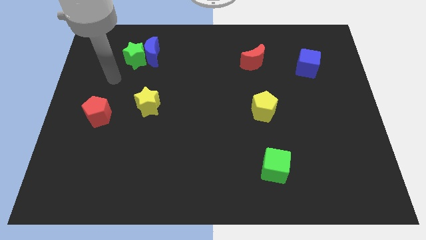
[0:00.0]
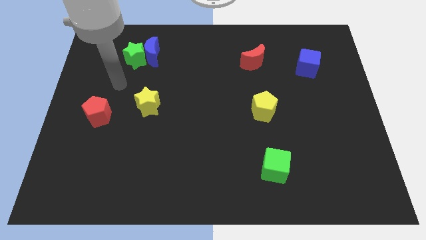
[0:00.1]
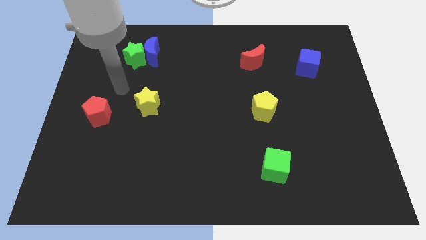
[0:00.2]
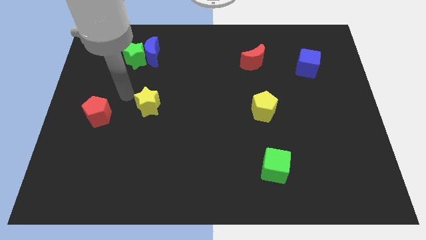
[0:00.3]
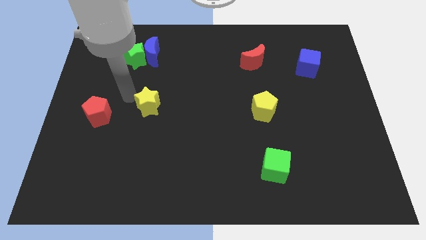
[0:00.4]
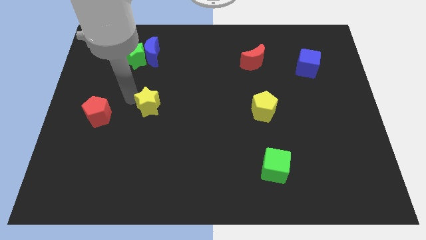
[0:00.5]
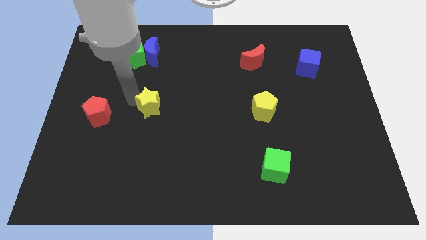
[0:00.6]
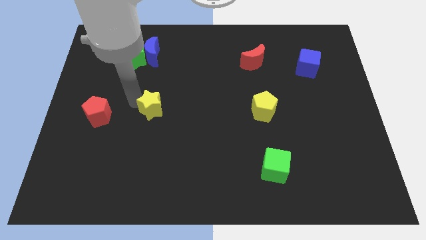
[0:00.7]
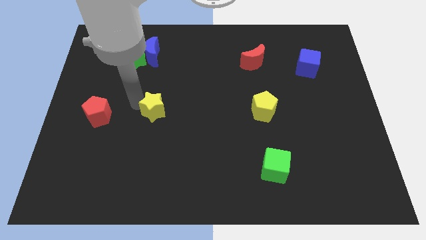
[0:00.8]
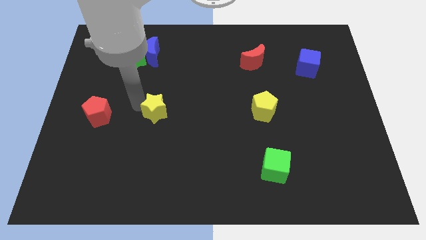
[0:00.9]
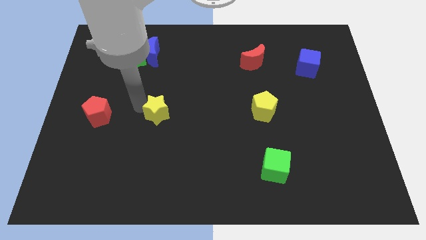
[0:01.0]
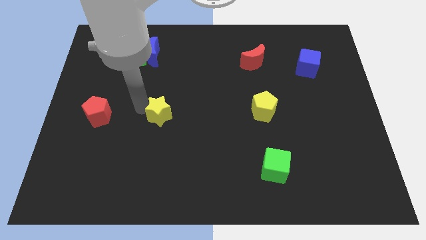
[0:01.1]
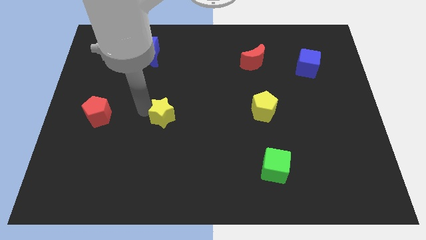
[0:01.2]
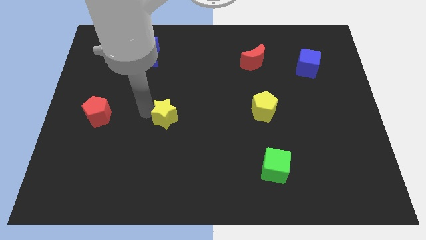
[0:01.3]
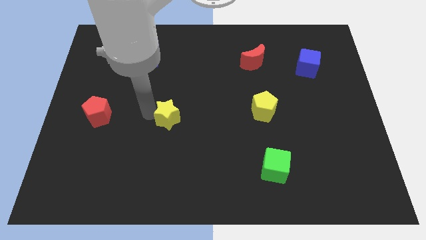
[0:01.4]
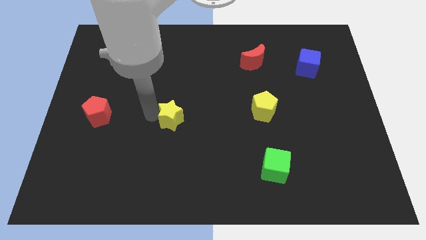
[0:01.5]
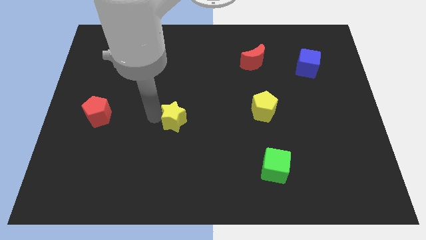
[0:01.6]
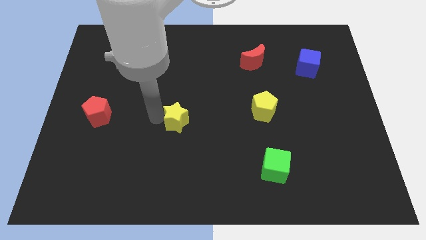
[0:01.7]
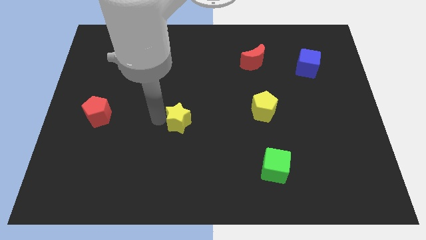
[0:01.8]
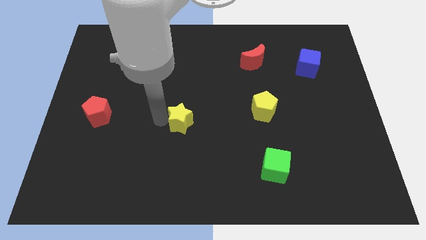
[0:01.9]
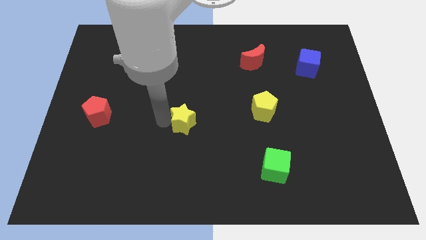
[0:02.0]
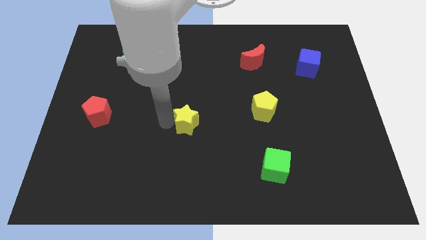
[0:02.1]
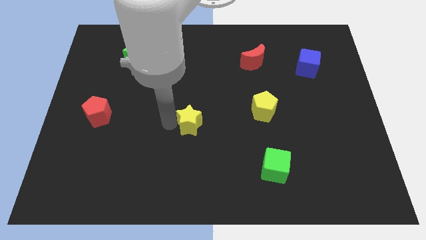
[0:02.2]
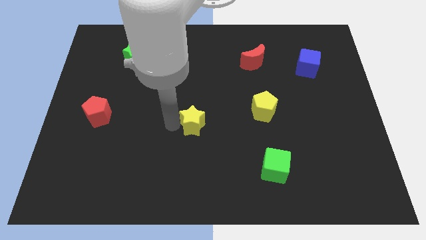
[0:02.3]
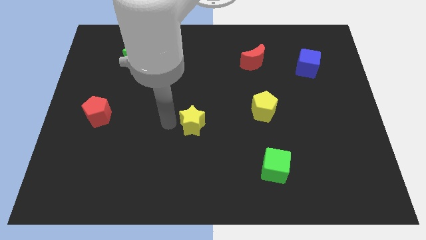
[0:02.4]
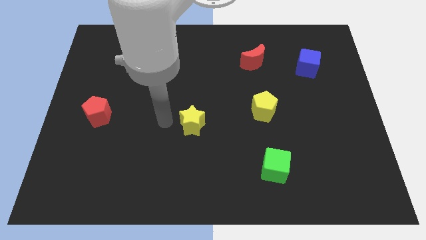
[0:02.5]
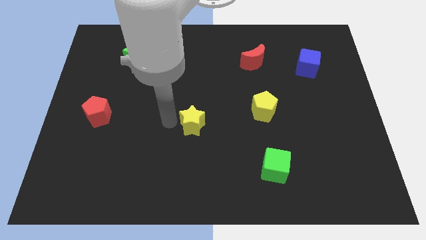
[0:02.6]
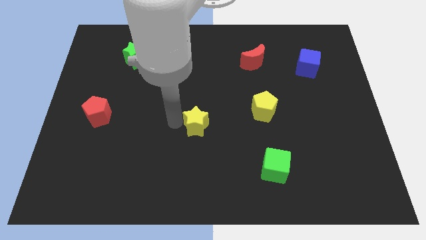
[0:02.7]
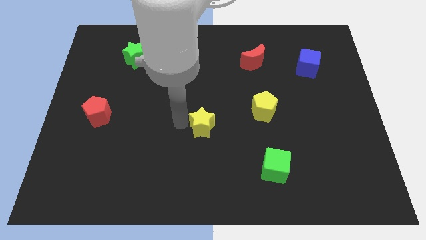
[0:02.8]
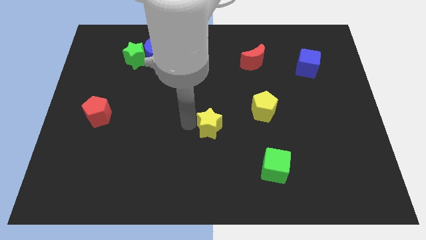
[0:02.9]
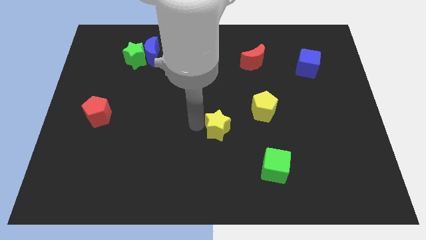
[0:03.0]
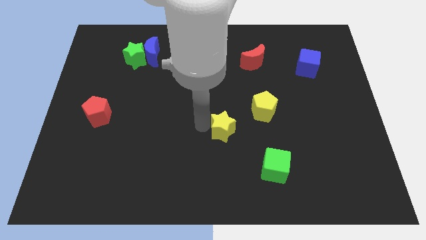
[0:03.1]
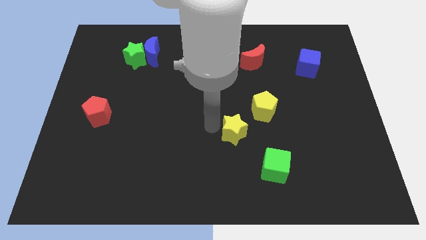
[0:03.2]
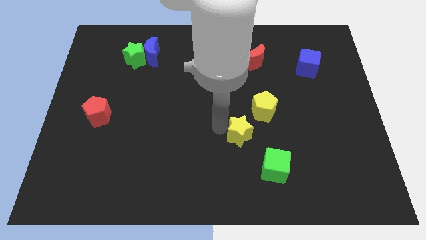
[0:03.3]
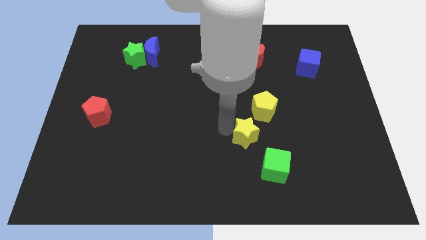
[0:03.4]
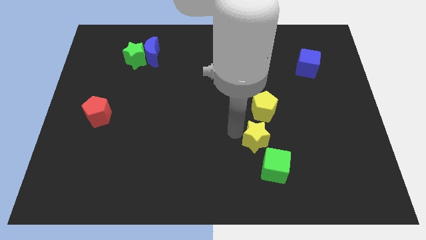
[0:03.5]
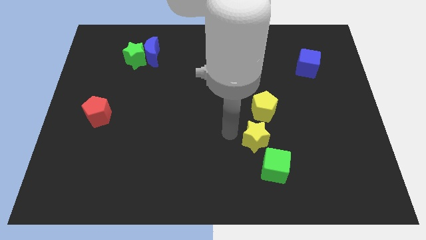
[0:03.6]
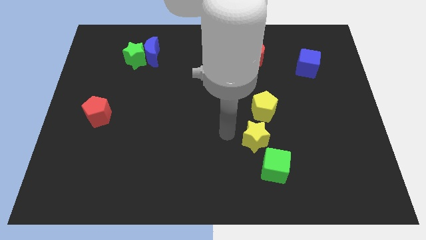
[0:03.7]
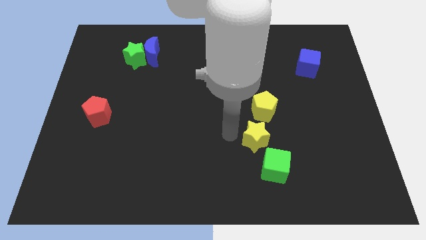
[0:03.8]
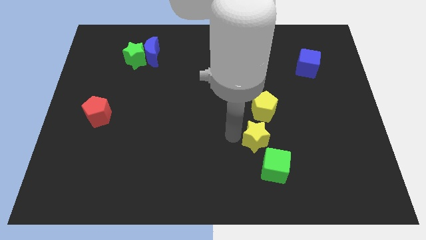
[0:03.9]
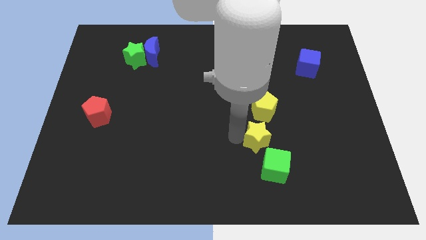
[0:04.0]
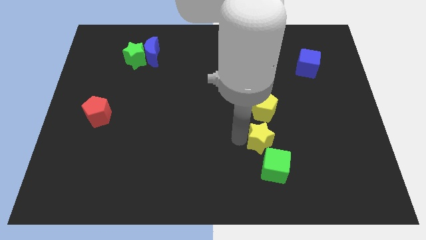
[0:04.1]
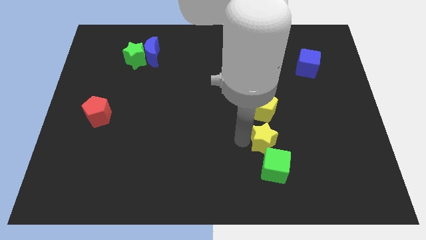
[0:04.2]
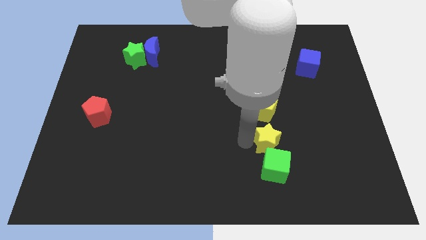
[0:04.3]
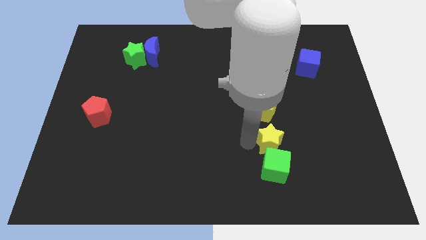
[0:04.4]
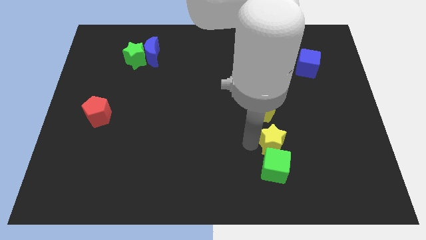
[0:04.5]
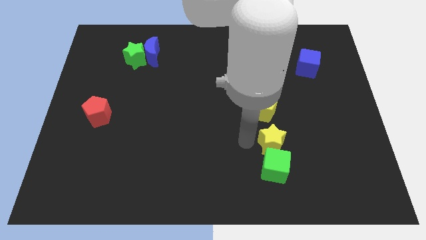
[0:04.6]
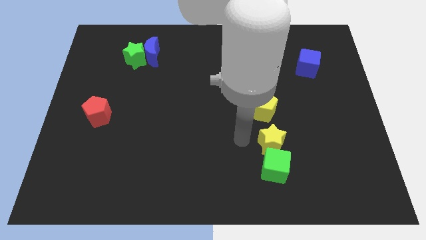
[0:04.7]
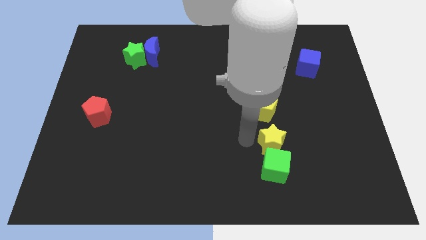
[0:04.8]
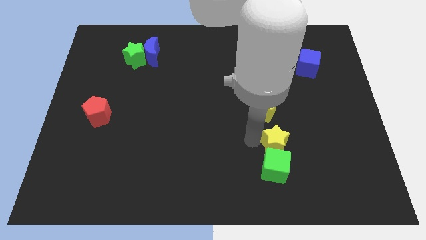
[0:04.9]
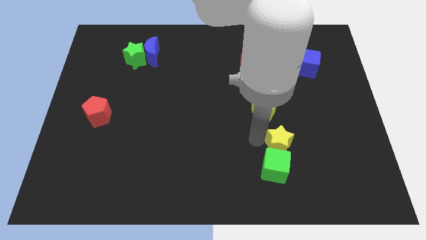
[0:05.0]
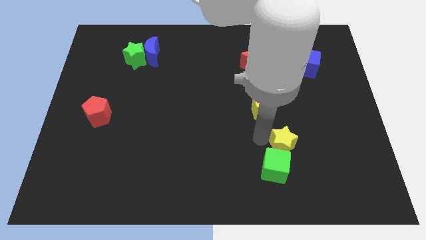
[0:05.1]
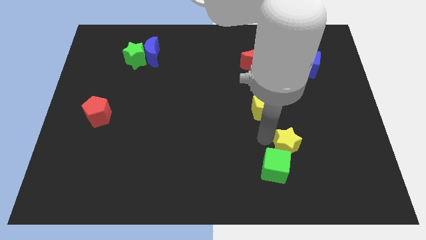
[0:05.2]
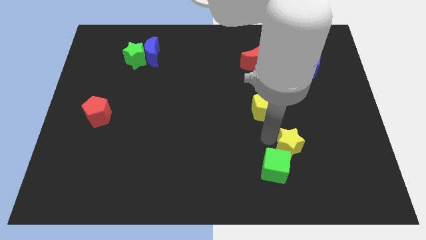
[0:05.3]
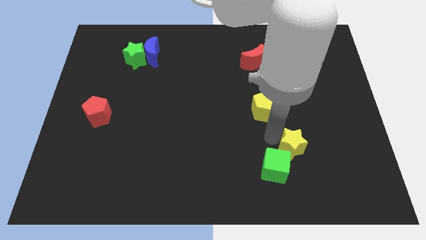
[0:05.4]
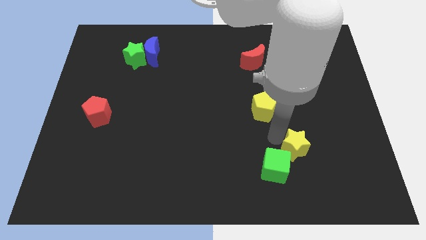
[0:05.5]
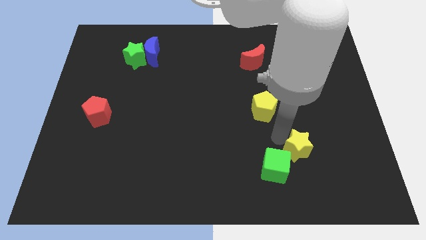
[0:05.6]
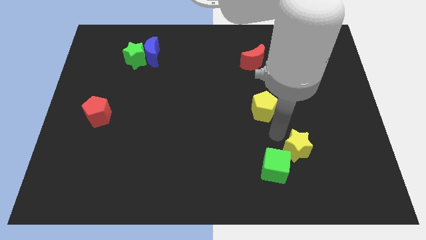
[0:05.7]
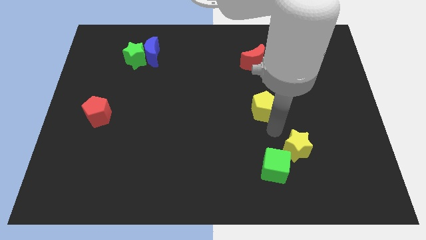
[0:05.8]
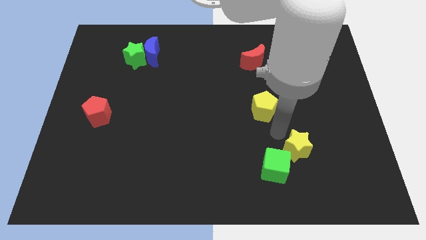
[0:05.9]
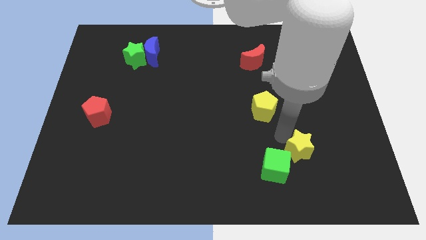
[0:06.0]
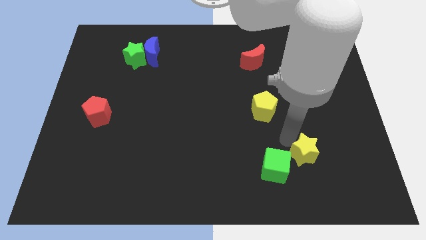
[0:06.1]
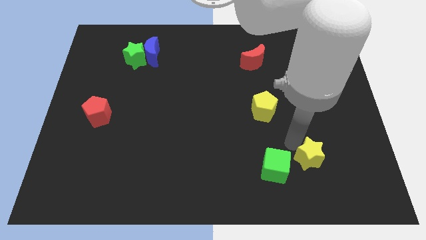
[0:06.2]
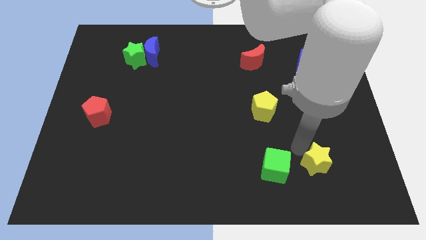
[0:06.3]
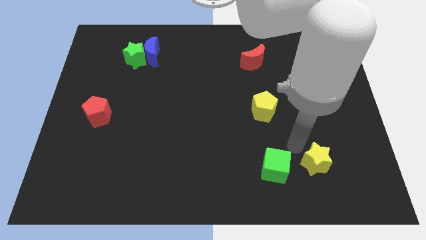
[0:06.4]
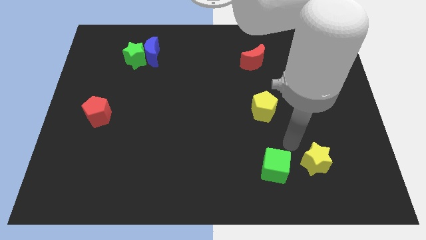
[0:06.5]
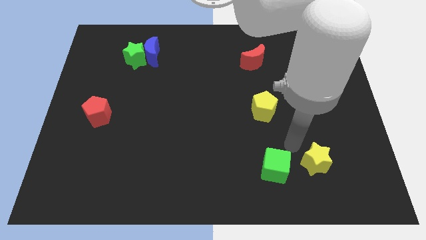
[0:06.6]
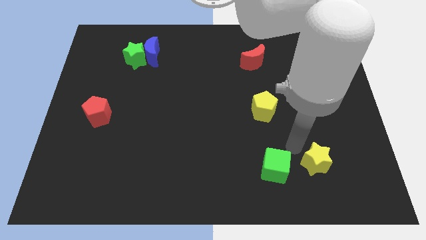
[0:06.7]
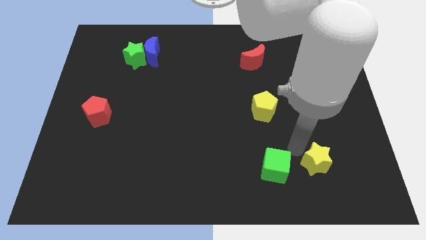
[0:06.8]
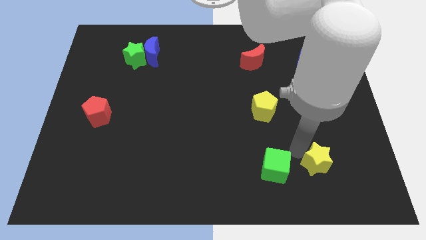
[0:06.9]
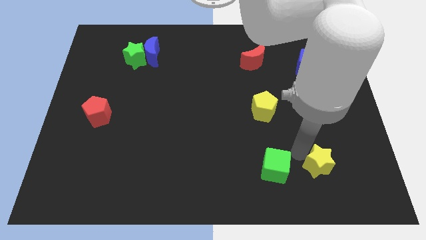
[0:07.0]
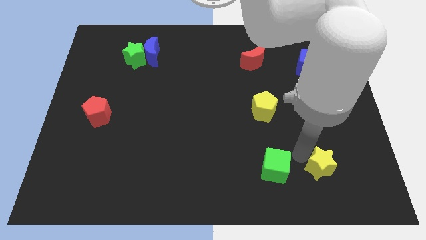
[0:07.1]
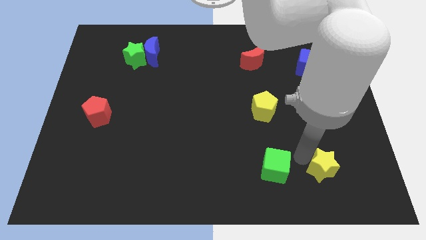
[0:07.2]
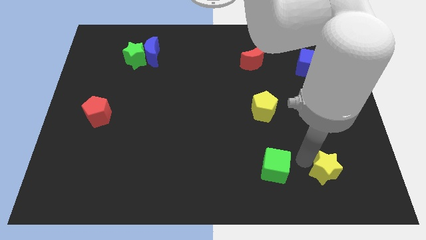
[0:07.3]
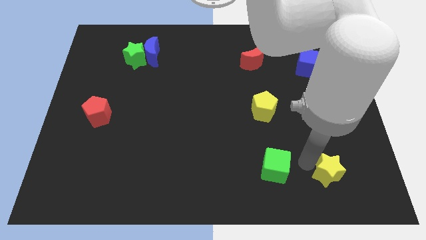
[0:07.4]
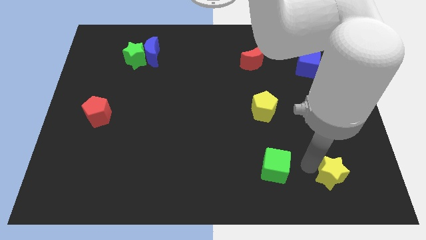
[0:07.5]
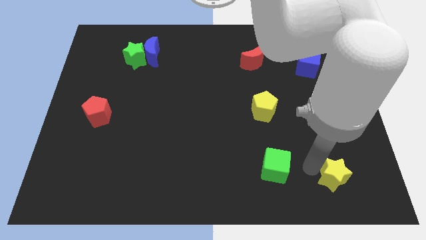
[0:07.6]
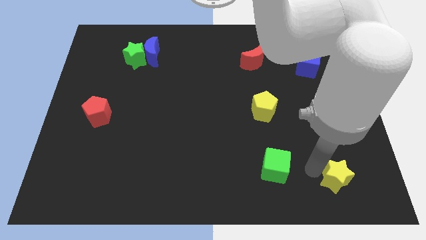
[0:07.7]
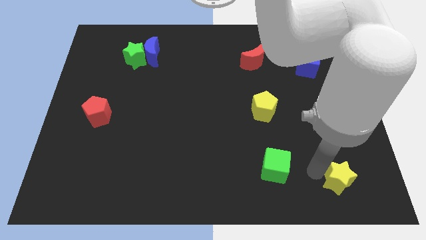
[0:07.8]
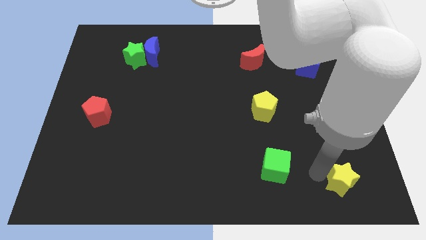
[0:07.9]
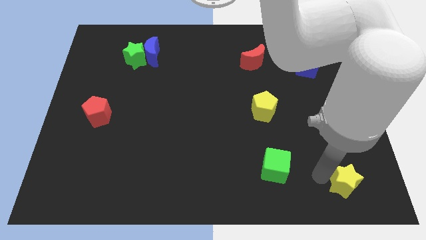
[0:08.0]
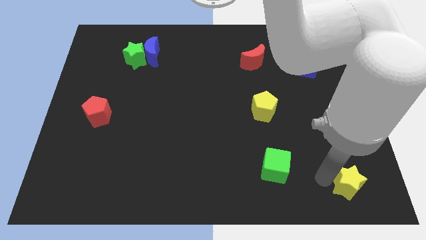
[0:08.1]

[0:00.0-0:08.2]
push the yellow star to the bottom right

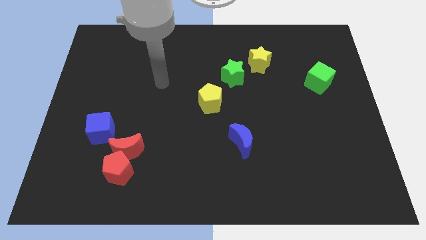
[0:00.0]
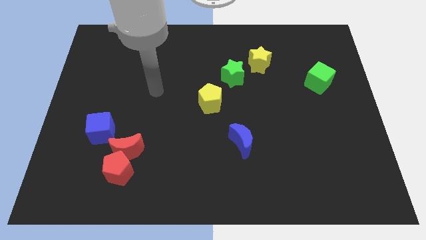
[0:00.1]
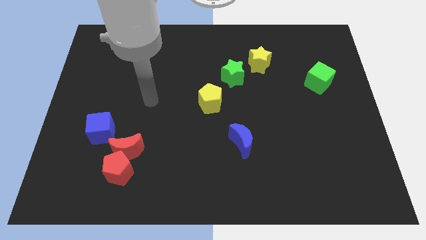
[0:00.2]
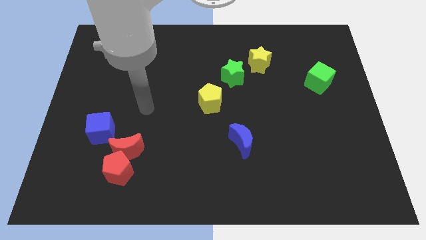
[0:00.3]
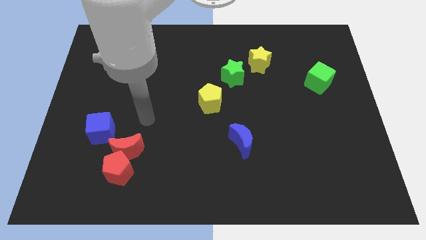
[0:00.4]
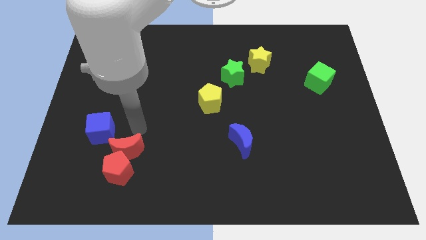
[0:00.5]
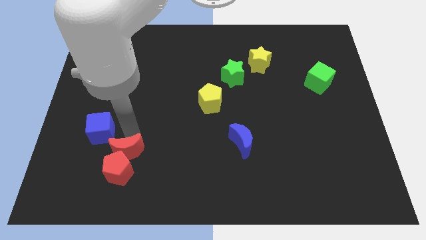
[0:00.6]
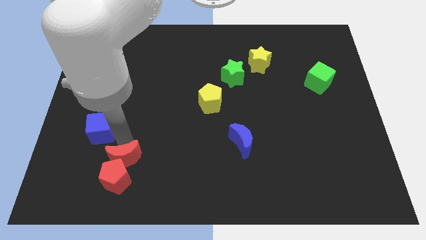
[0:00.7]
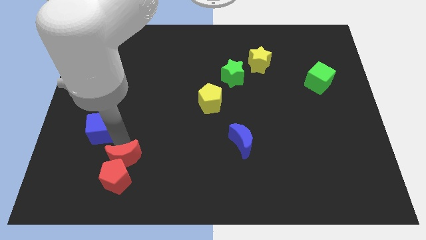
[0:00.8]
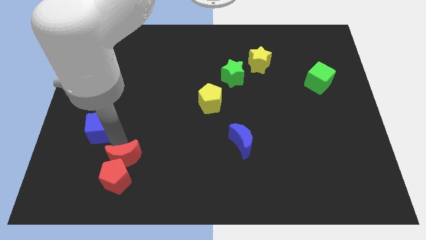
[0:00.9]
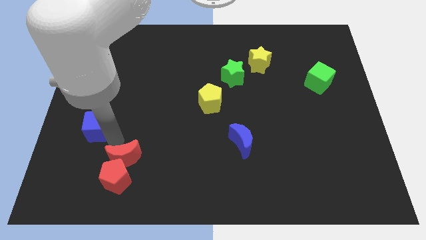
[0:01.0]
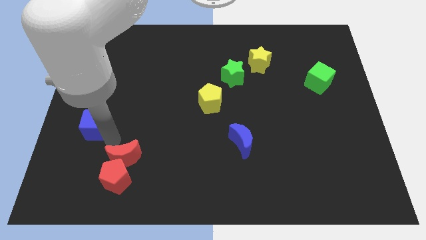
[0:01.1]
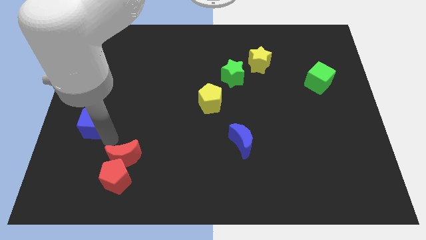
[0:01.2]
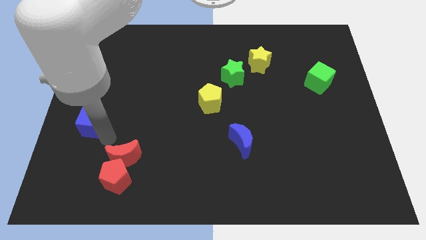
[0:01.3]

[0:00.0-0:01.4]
slide the blue cube to the center left
